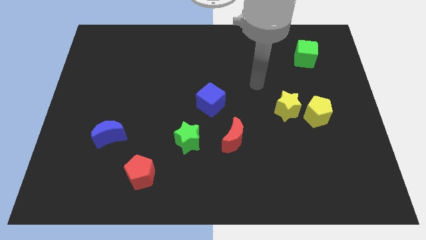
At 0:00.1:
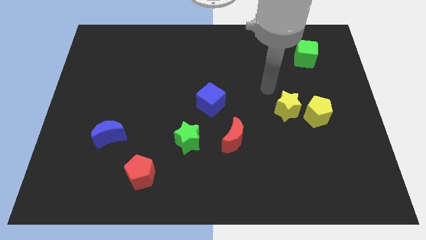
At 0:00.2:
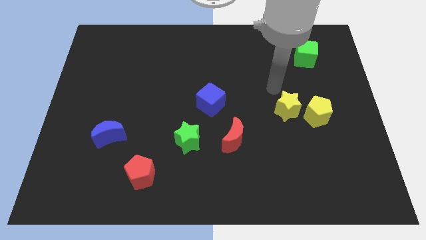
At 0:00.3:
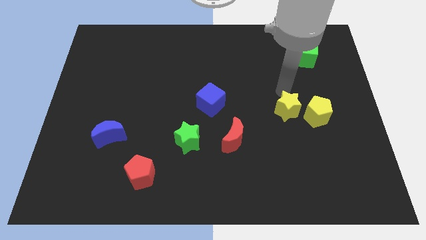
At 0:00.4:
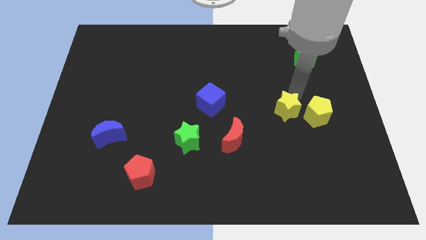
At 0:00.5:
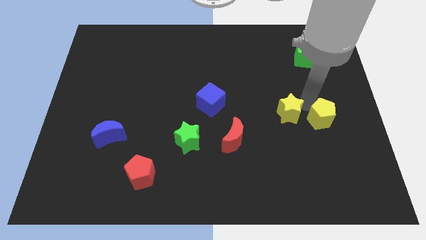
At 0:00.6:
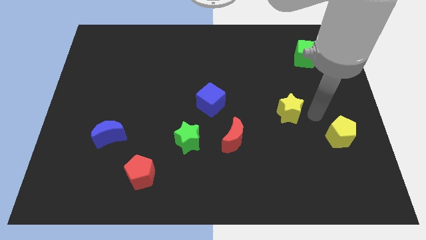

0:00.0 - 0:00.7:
pull the yellow star apart from the yellow pentagon

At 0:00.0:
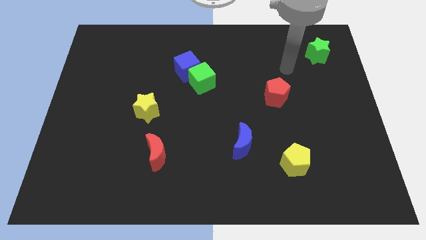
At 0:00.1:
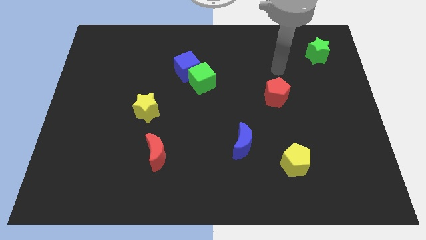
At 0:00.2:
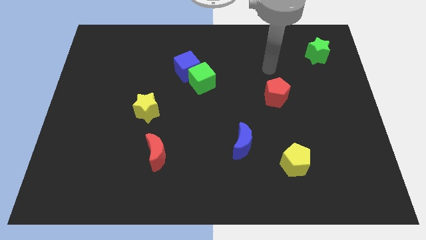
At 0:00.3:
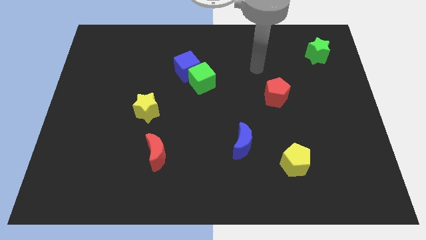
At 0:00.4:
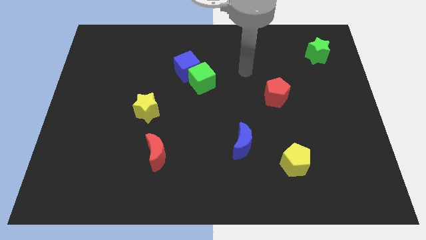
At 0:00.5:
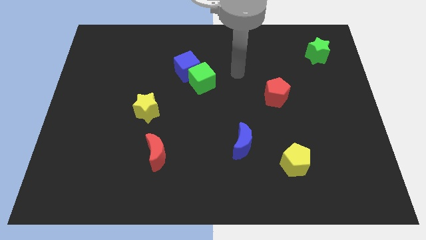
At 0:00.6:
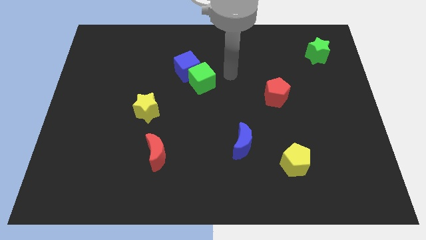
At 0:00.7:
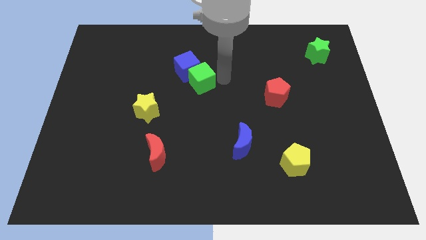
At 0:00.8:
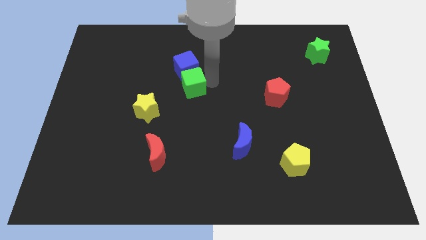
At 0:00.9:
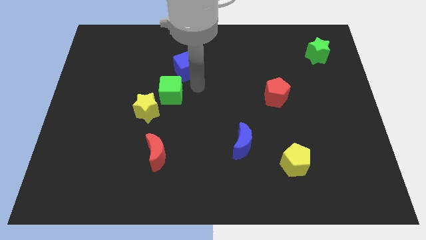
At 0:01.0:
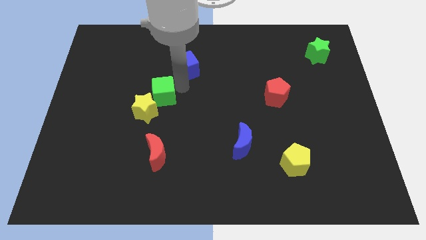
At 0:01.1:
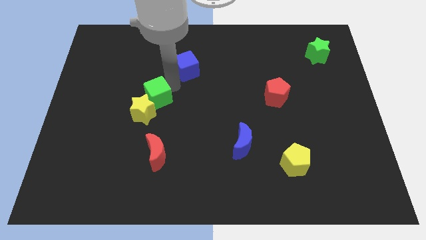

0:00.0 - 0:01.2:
separate the blue cube from the green cube

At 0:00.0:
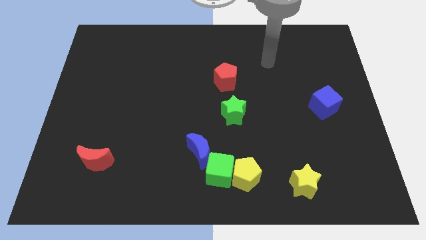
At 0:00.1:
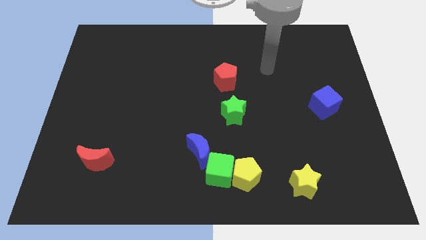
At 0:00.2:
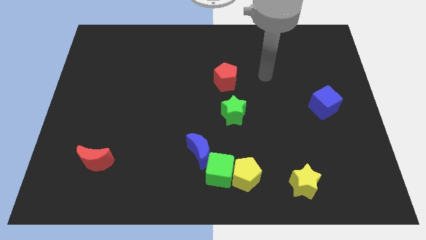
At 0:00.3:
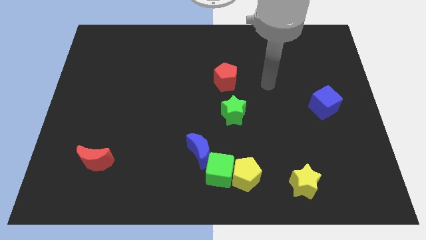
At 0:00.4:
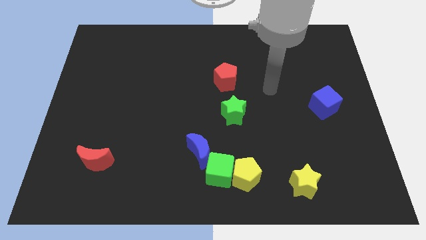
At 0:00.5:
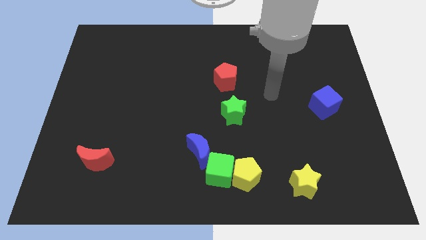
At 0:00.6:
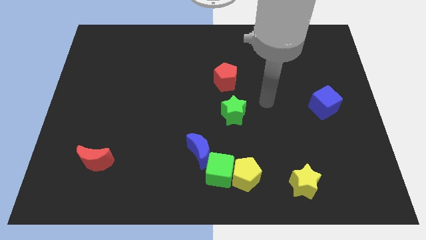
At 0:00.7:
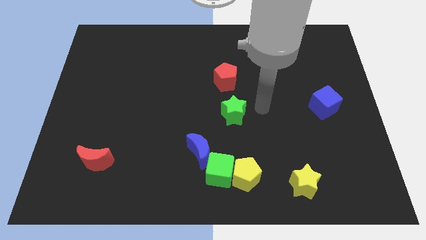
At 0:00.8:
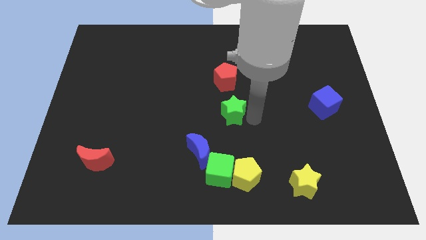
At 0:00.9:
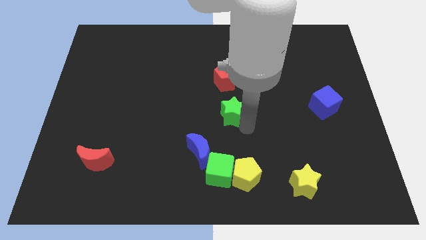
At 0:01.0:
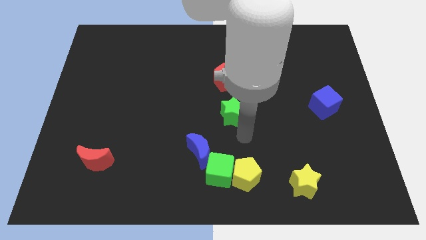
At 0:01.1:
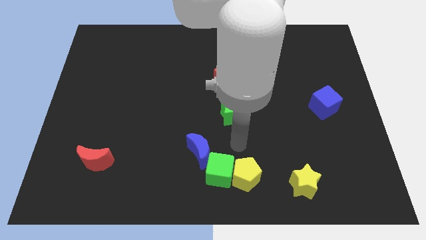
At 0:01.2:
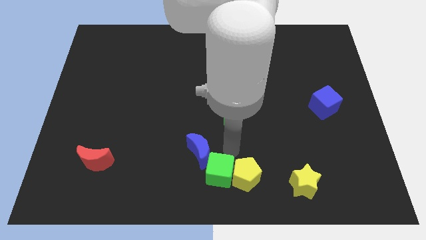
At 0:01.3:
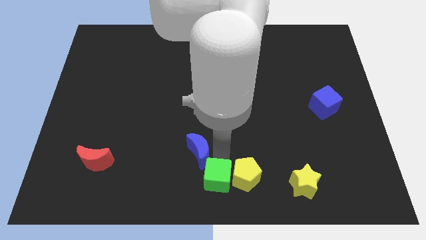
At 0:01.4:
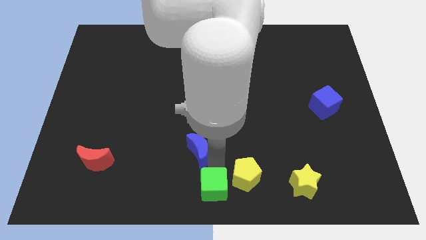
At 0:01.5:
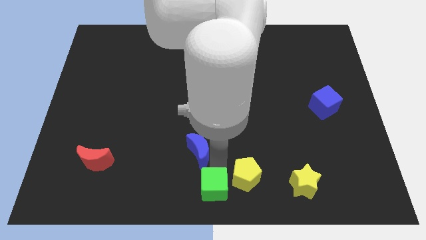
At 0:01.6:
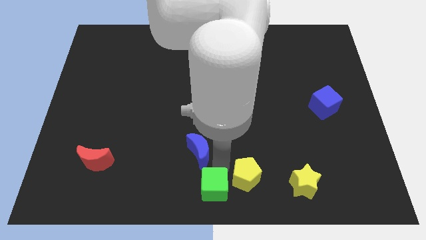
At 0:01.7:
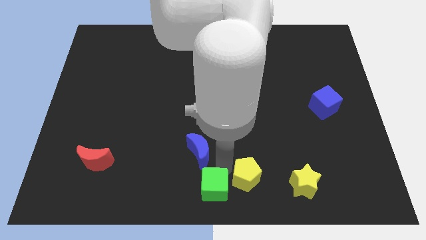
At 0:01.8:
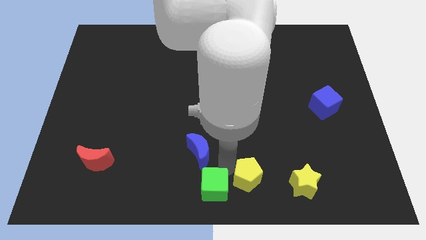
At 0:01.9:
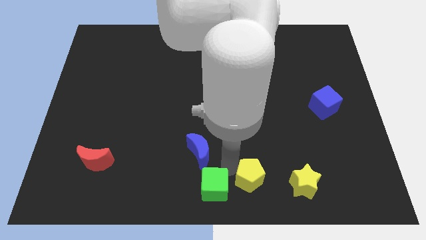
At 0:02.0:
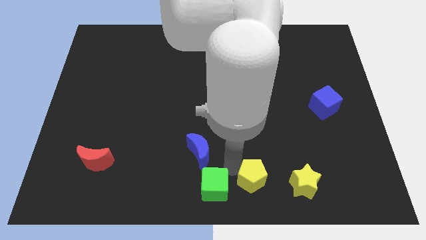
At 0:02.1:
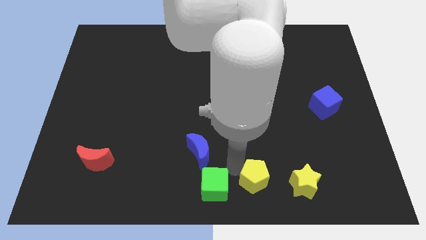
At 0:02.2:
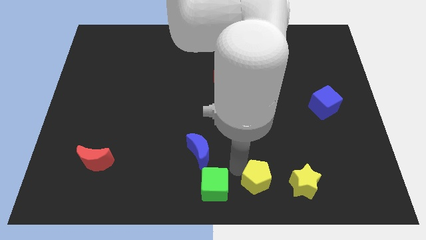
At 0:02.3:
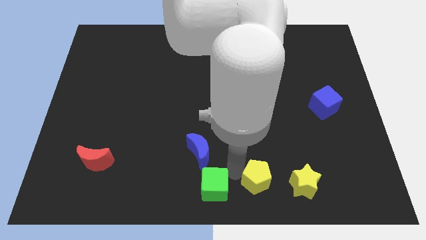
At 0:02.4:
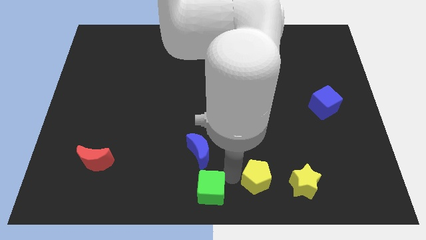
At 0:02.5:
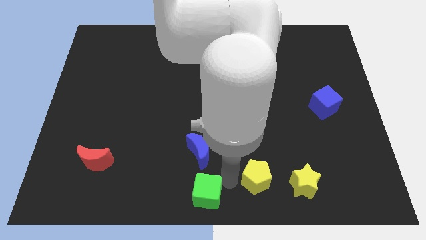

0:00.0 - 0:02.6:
move the yellow pentagon away from the green cube

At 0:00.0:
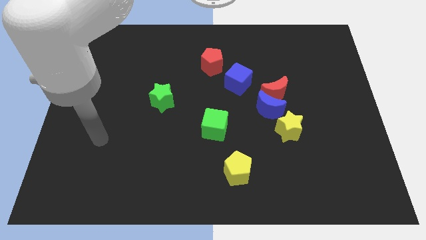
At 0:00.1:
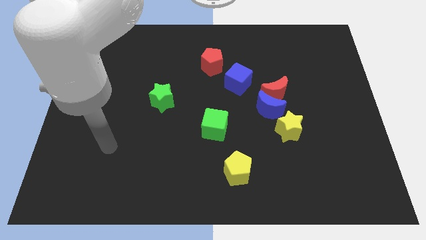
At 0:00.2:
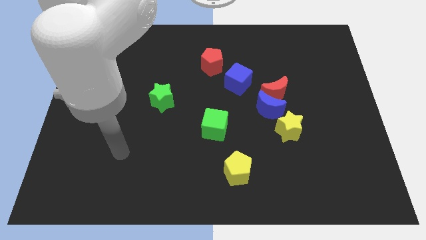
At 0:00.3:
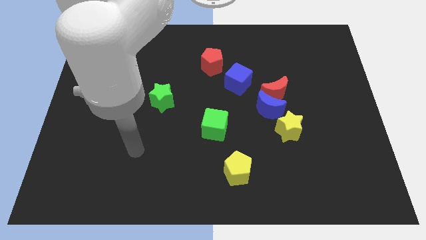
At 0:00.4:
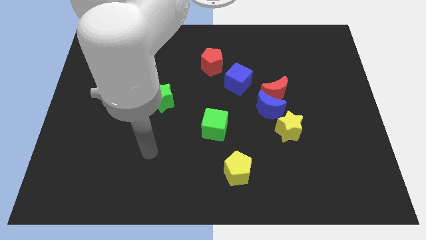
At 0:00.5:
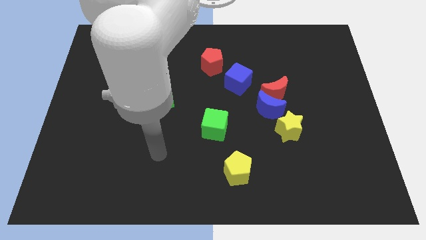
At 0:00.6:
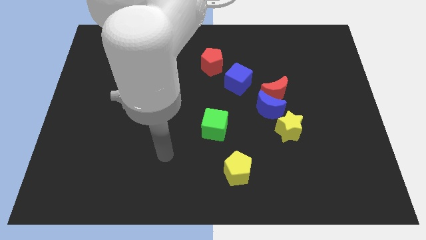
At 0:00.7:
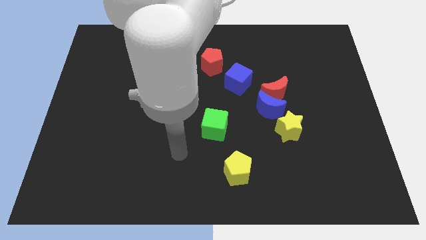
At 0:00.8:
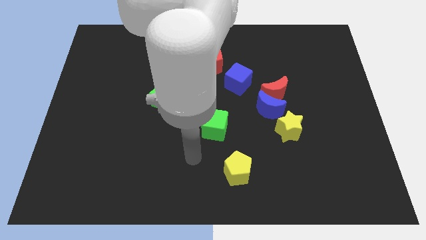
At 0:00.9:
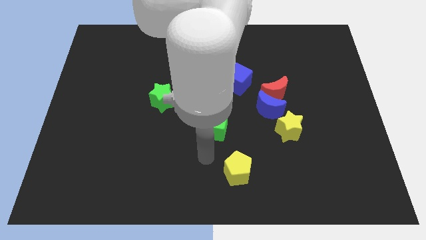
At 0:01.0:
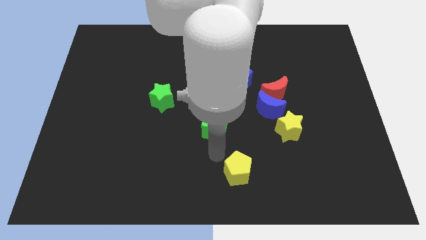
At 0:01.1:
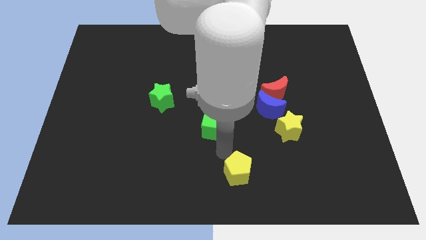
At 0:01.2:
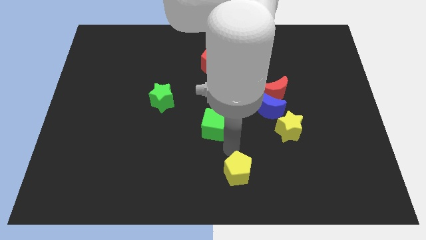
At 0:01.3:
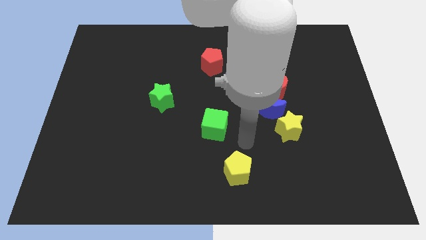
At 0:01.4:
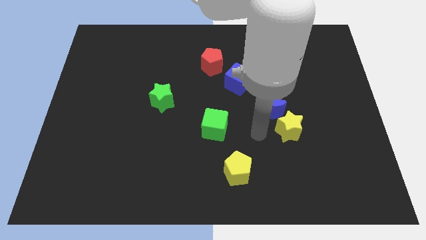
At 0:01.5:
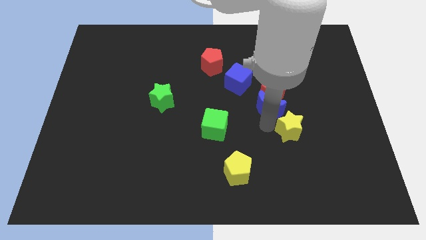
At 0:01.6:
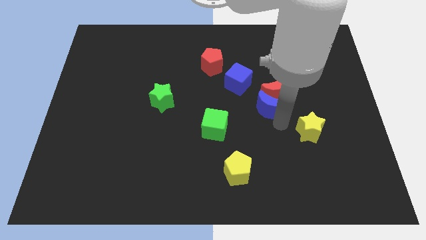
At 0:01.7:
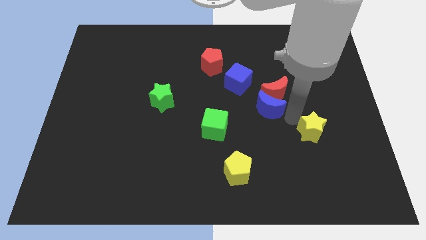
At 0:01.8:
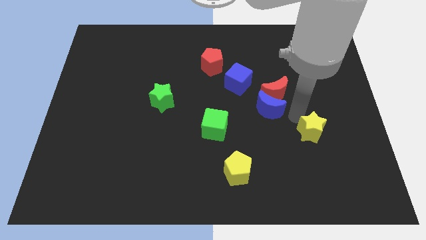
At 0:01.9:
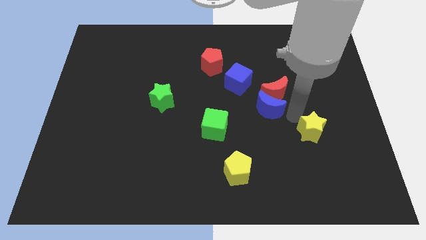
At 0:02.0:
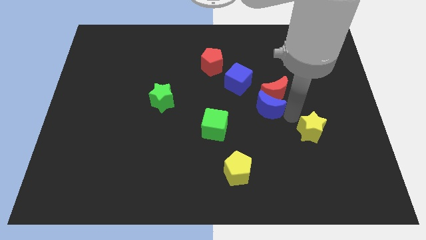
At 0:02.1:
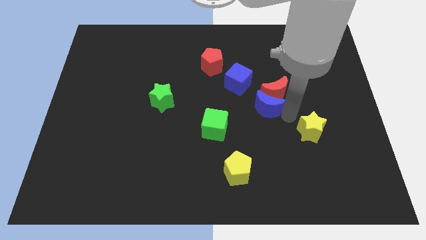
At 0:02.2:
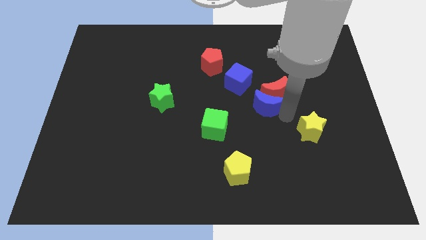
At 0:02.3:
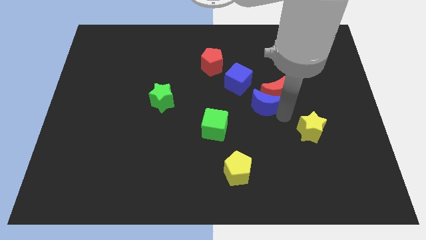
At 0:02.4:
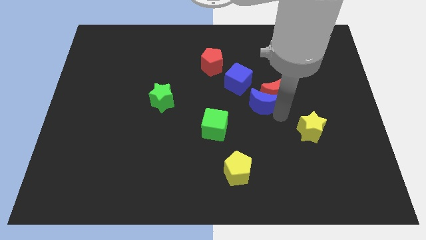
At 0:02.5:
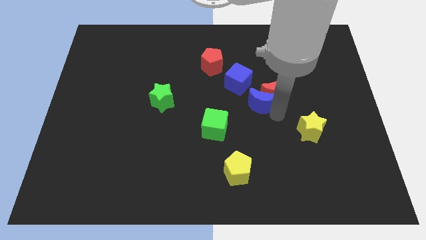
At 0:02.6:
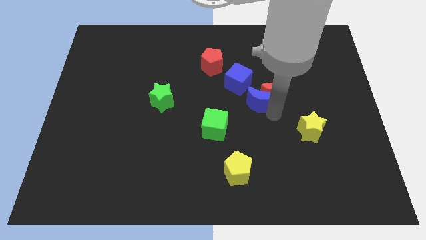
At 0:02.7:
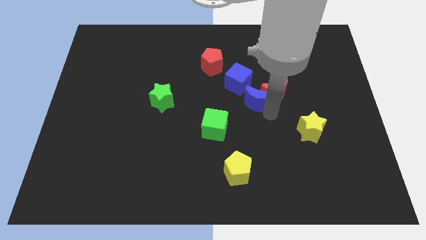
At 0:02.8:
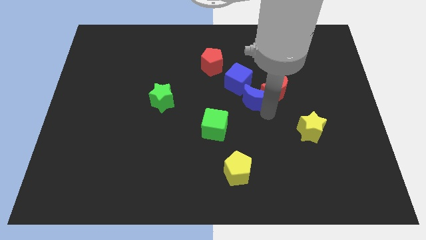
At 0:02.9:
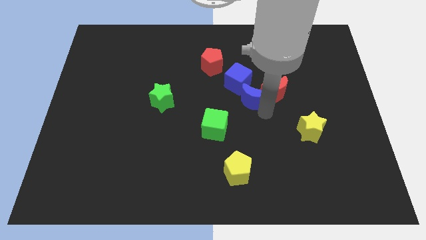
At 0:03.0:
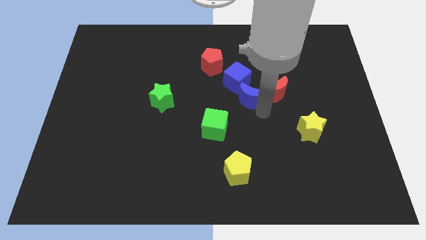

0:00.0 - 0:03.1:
move the blue moon away from the red moon and yellow star

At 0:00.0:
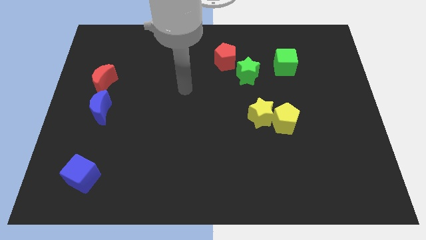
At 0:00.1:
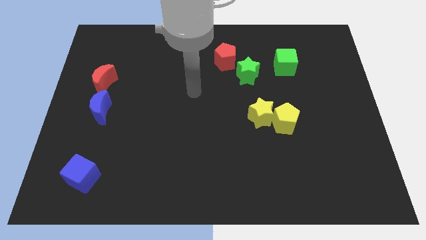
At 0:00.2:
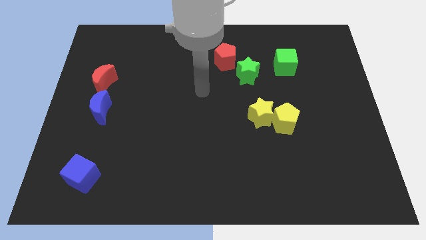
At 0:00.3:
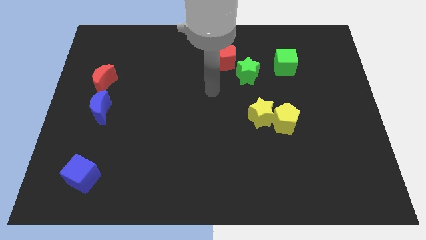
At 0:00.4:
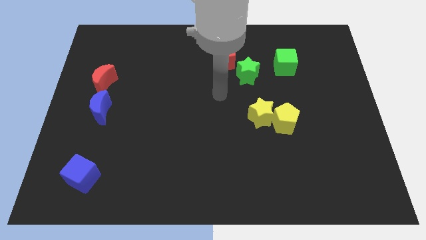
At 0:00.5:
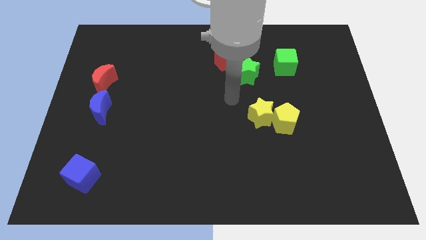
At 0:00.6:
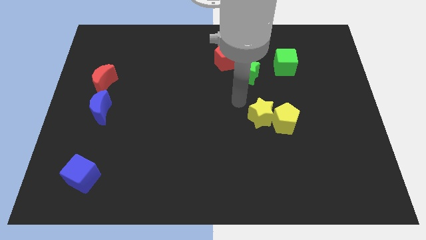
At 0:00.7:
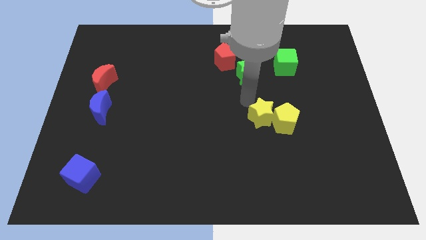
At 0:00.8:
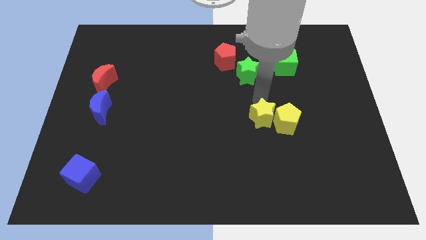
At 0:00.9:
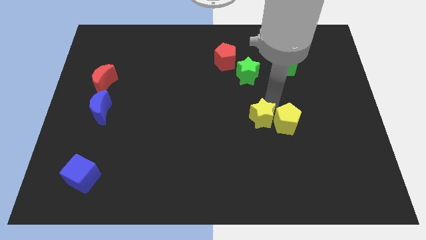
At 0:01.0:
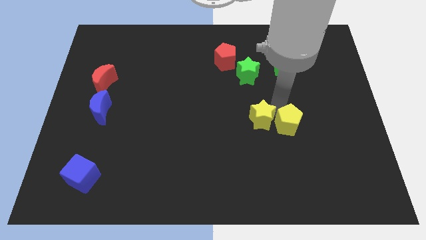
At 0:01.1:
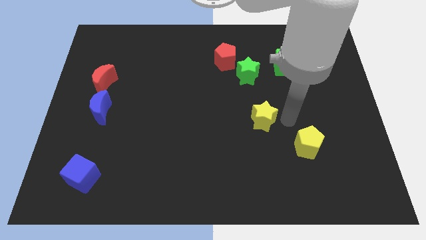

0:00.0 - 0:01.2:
separate the yellow star from the yellow pentagon

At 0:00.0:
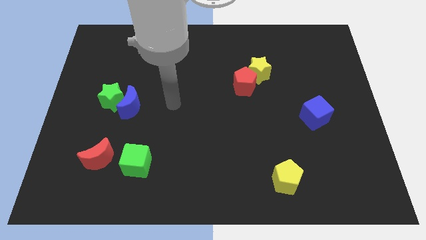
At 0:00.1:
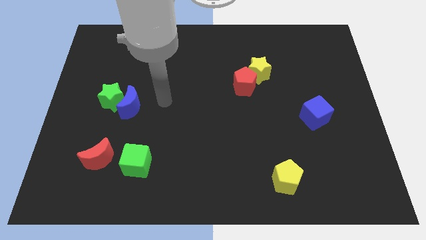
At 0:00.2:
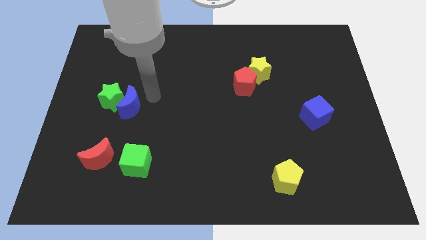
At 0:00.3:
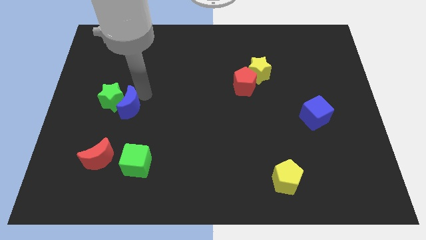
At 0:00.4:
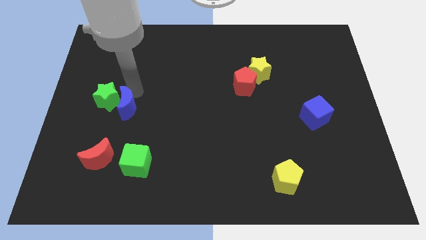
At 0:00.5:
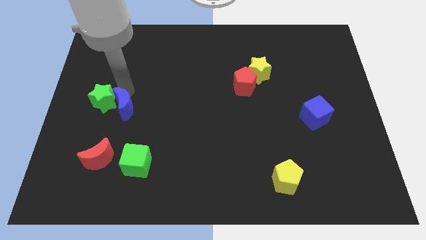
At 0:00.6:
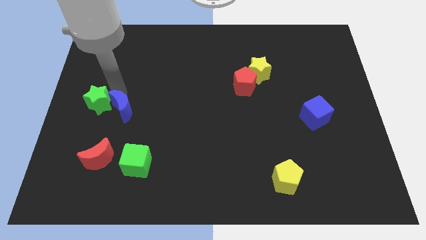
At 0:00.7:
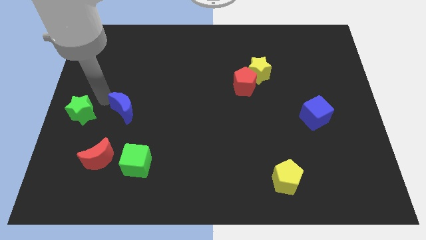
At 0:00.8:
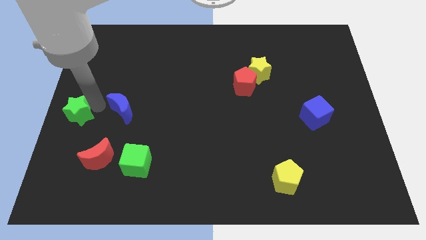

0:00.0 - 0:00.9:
separate the blue moon from the green star
